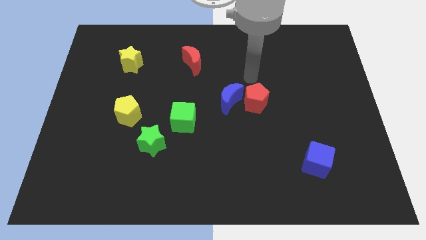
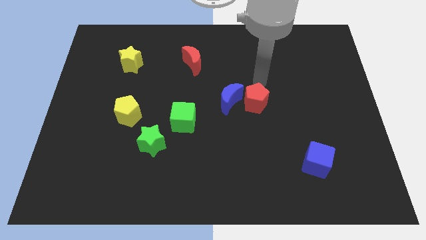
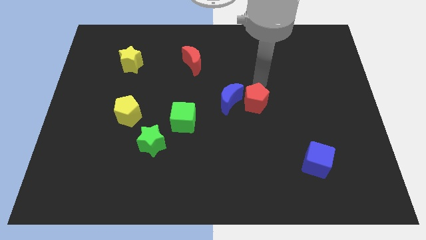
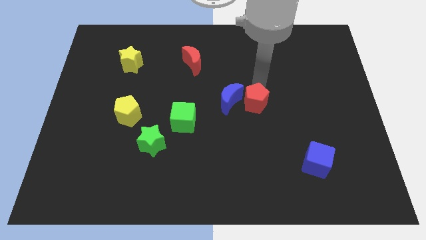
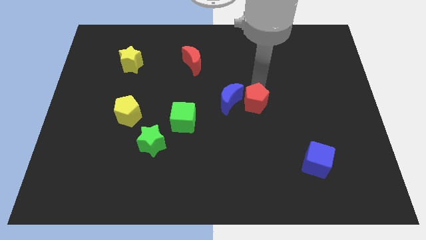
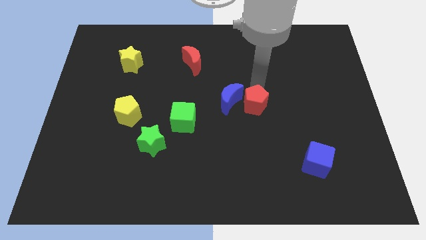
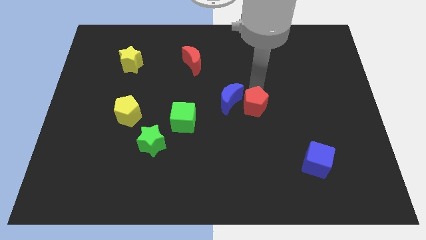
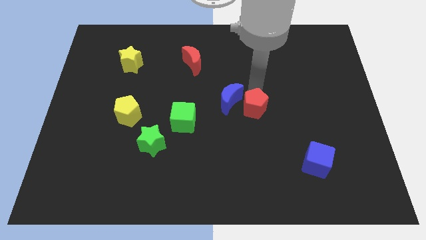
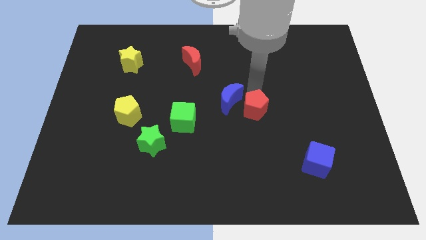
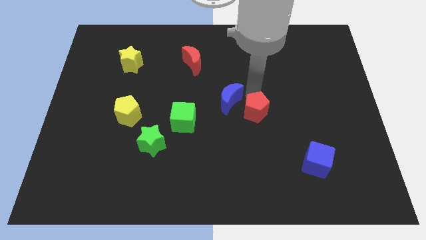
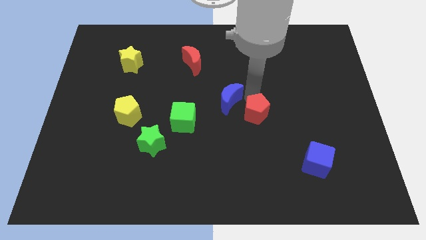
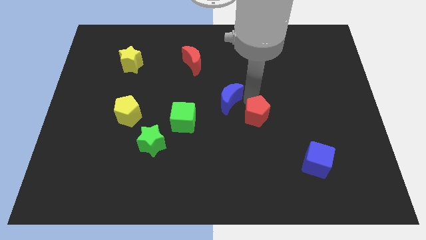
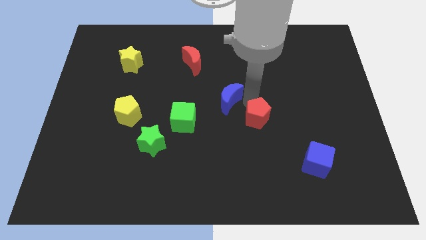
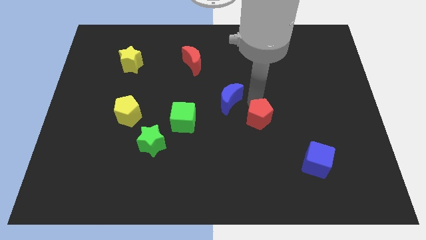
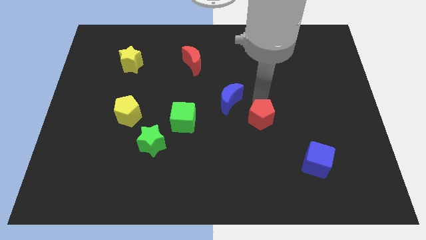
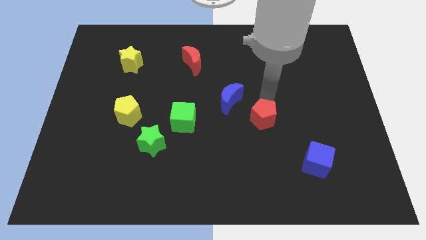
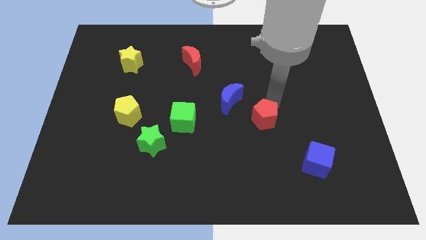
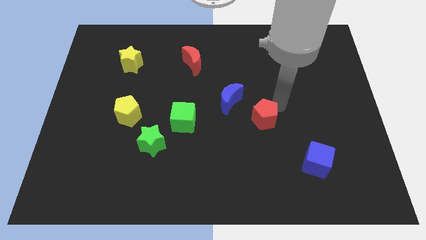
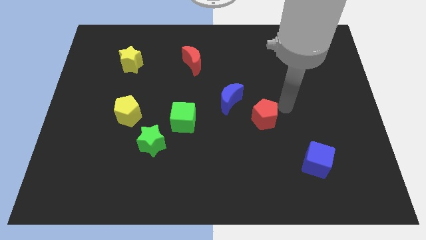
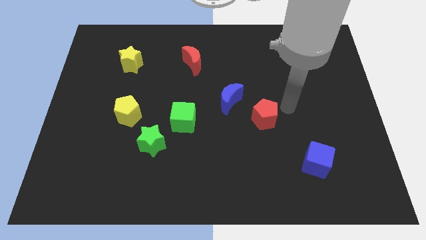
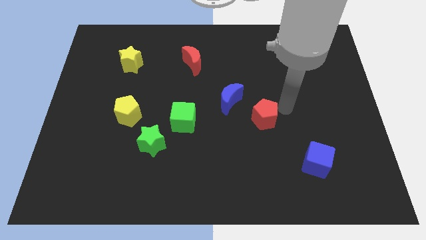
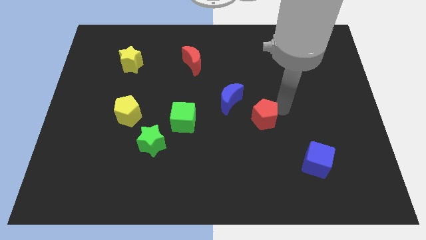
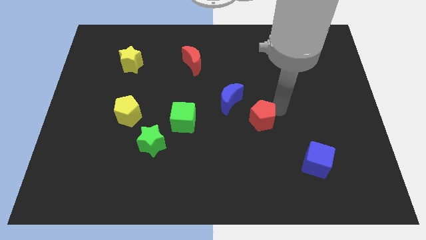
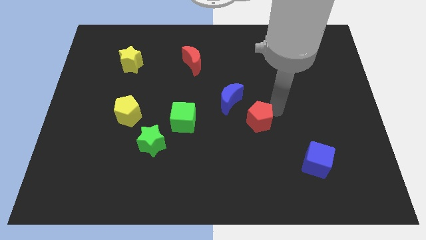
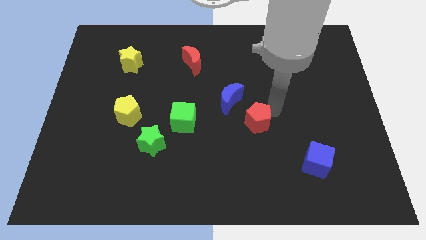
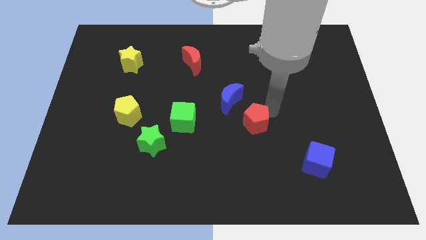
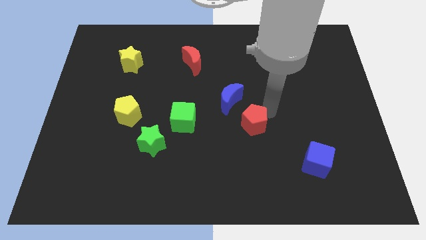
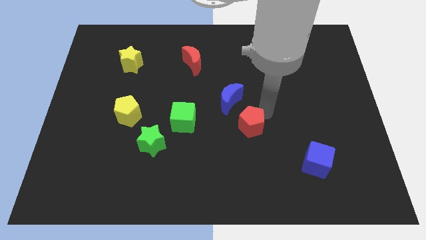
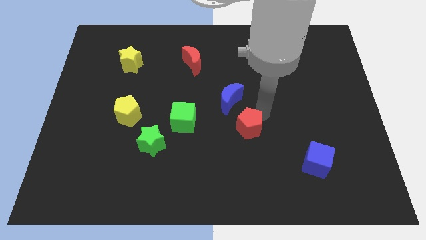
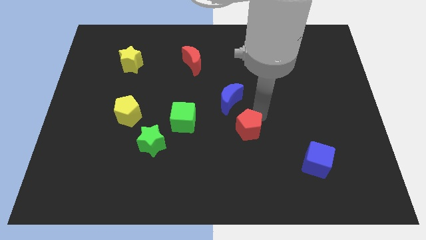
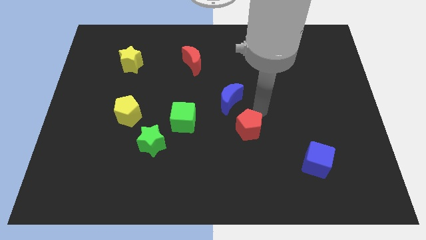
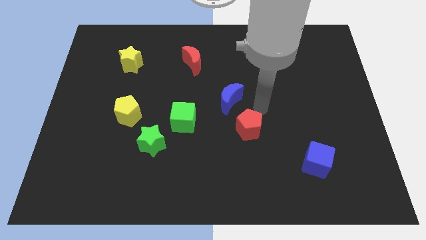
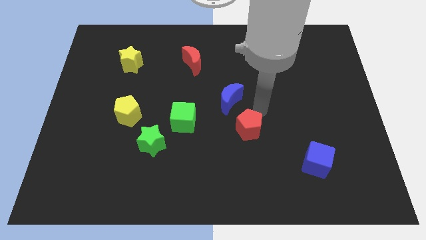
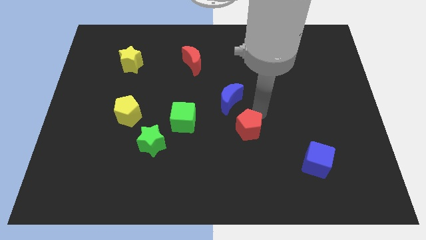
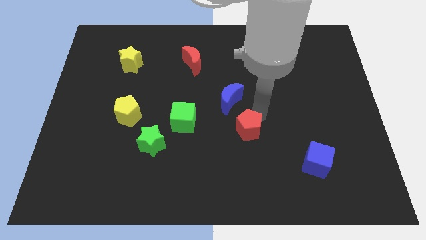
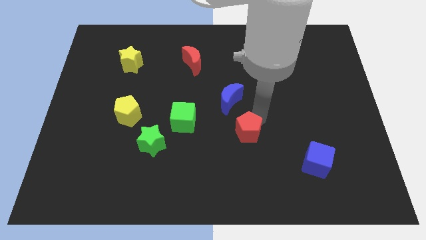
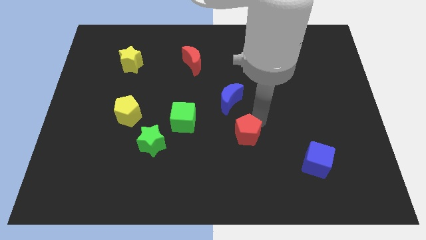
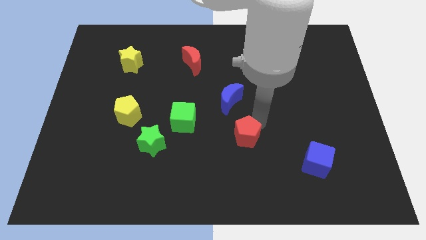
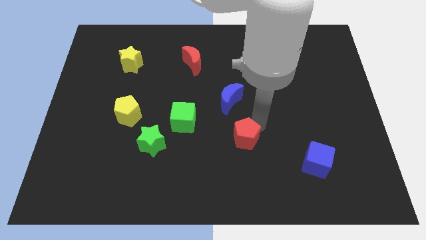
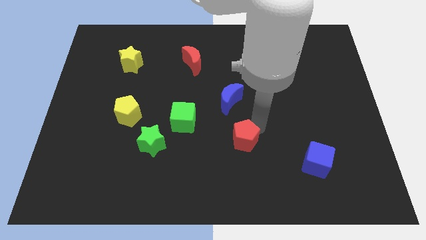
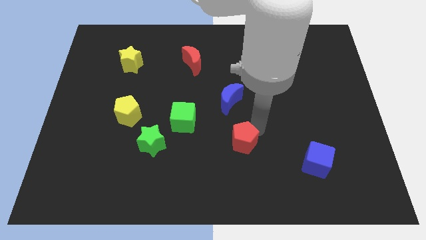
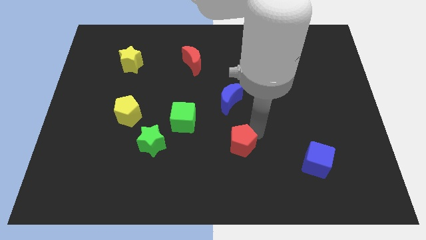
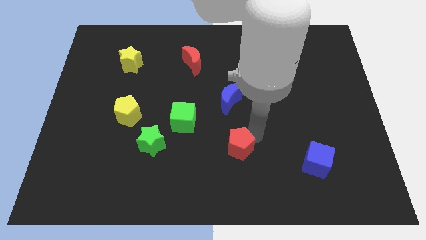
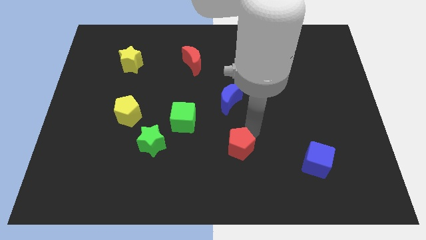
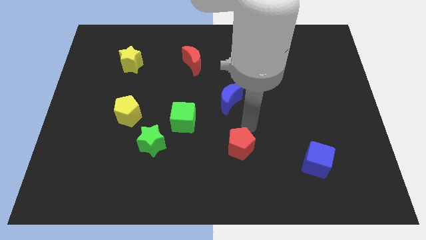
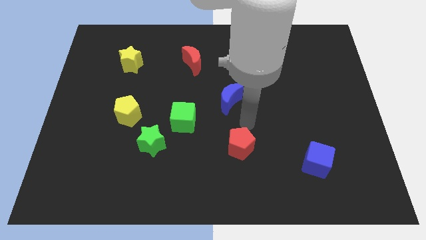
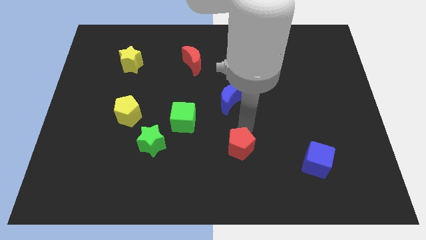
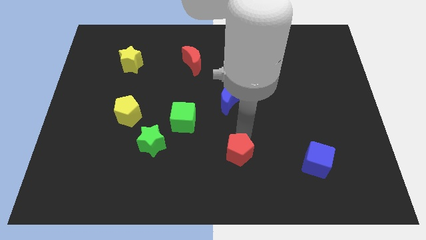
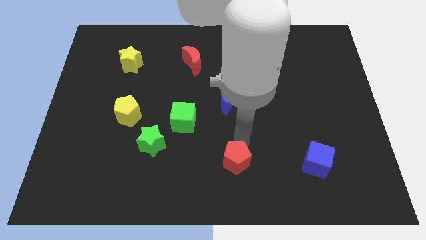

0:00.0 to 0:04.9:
slide the red pentagon to the bottom

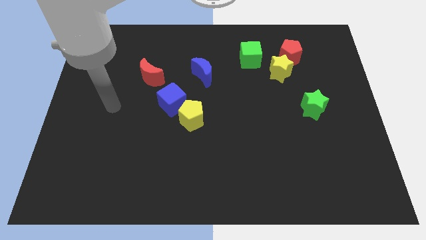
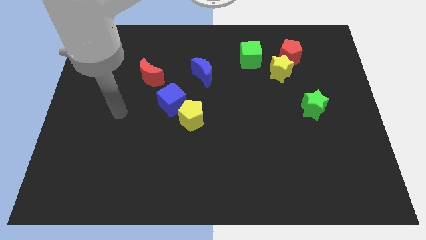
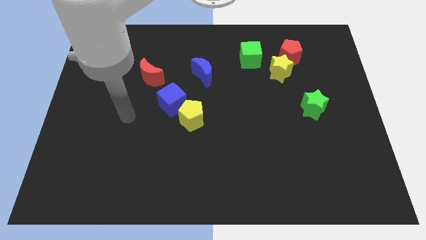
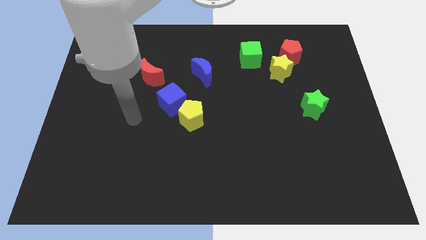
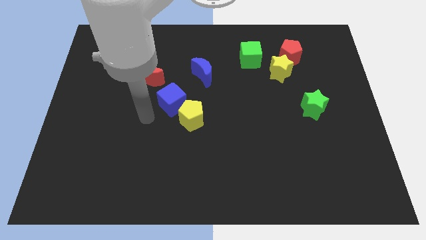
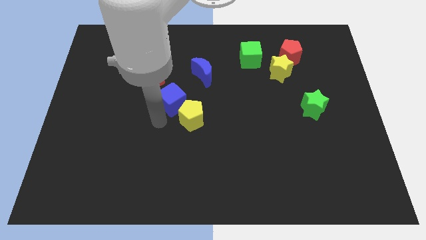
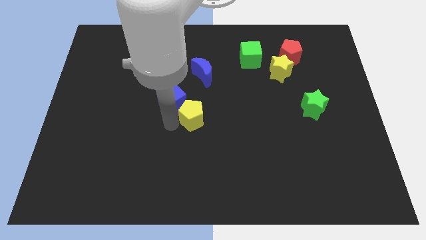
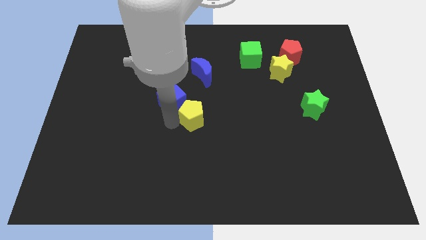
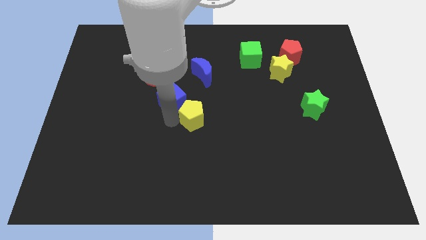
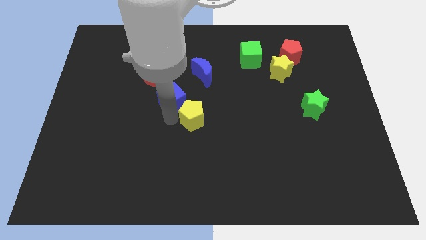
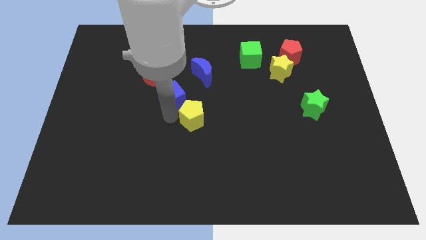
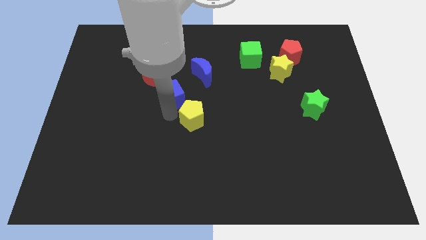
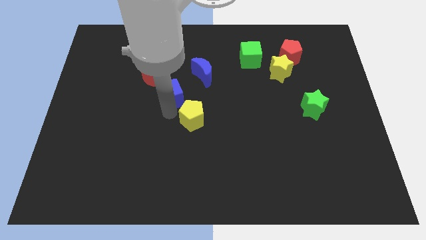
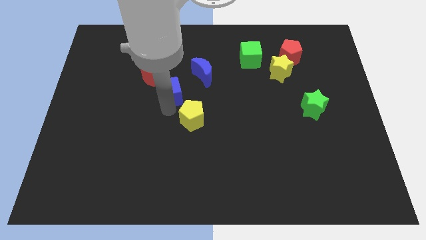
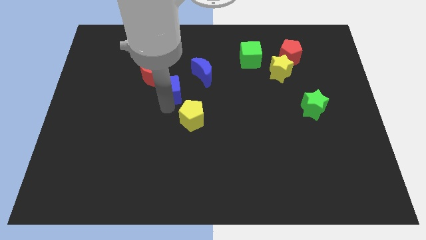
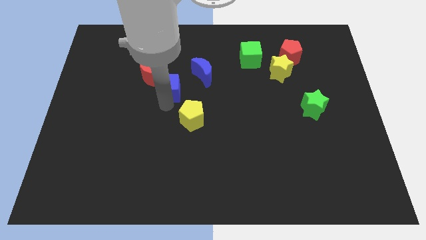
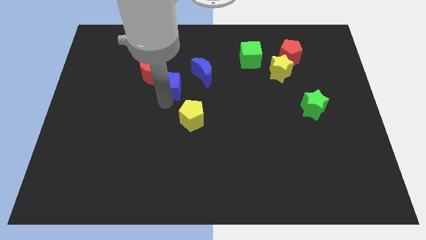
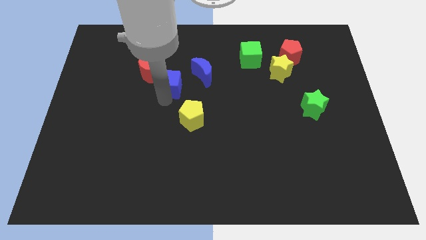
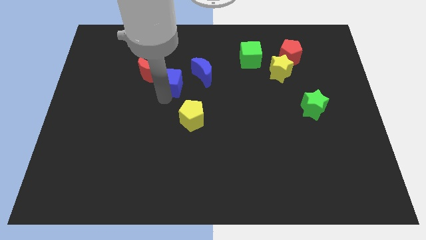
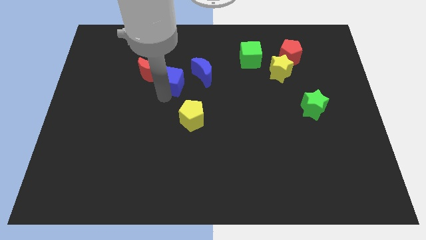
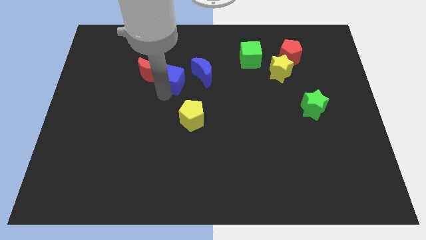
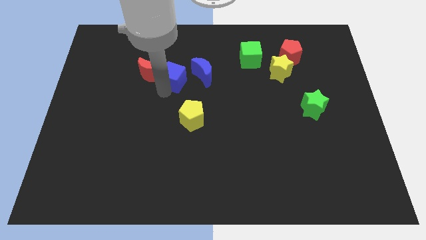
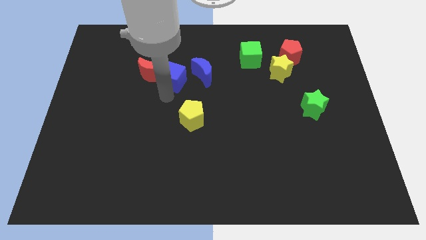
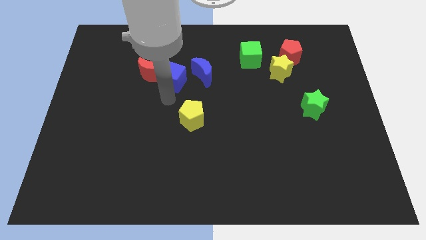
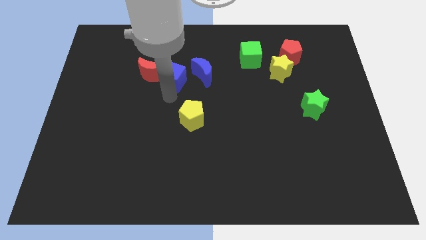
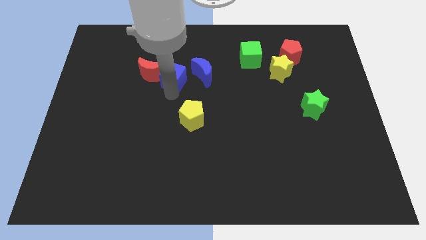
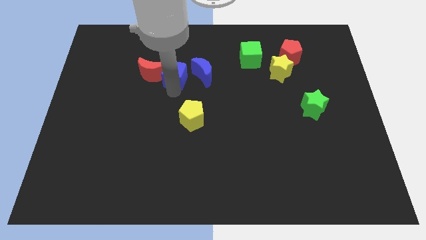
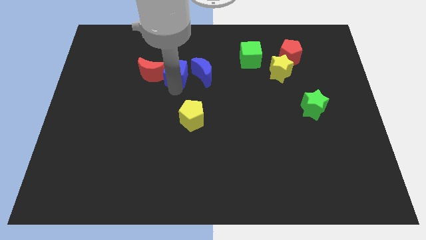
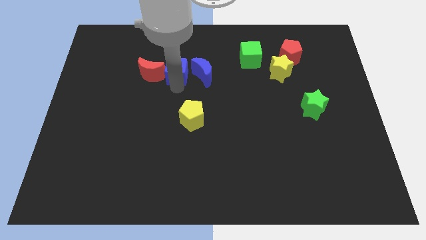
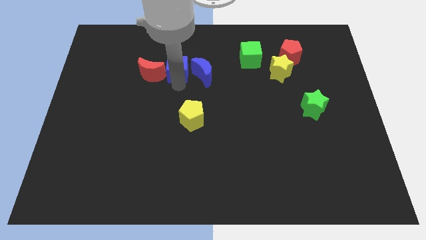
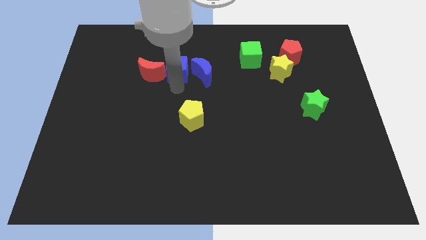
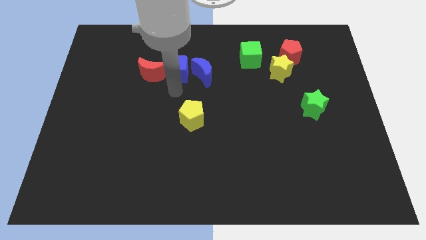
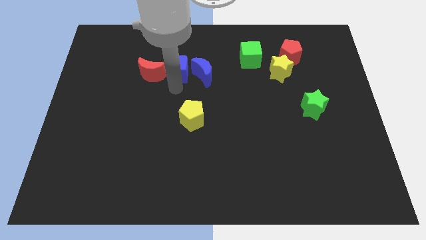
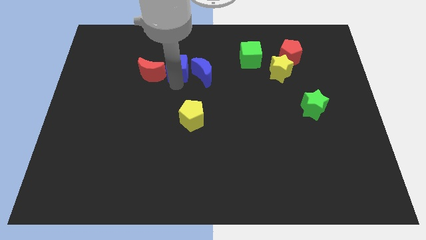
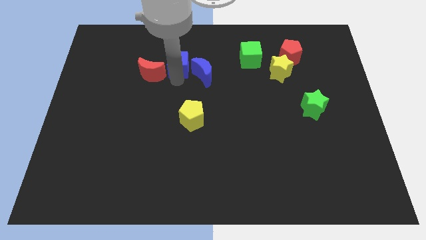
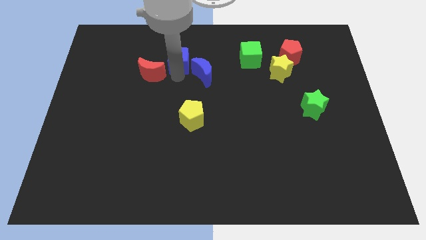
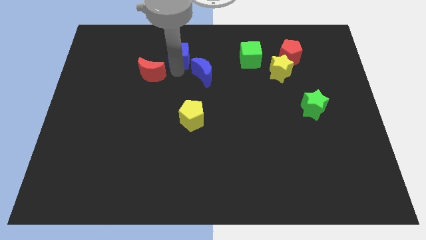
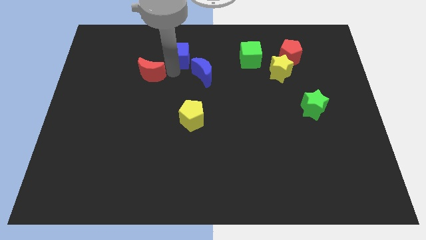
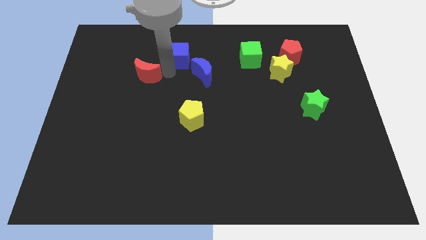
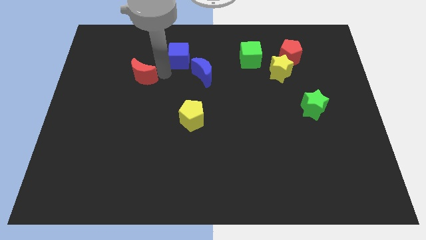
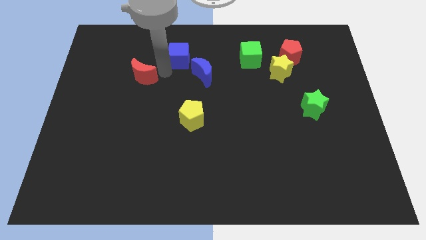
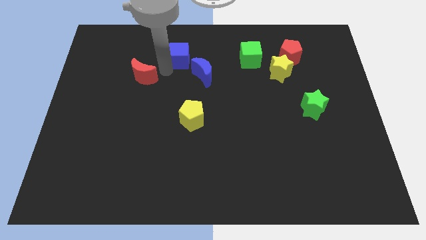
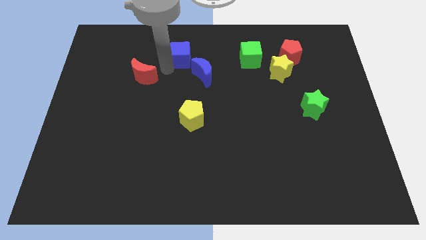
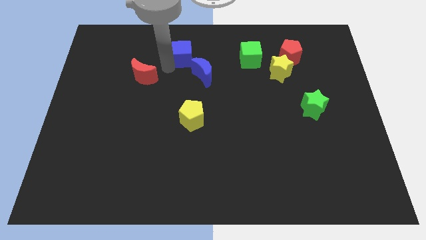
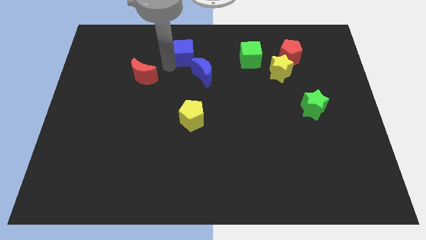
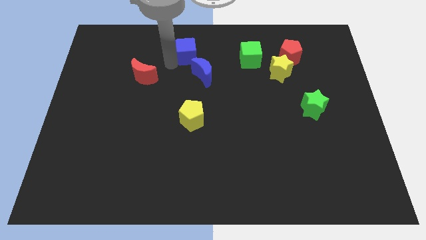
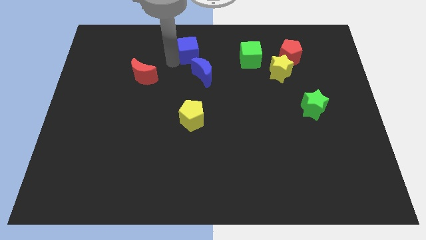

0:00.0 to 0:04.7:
put the blue cube to the towards your base
